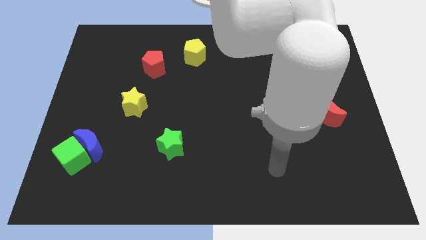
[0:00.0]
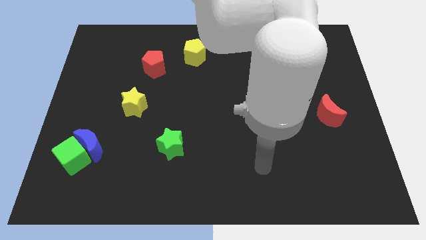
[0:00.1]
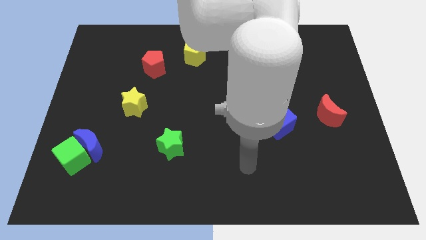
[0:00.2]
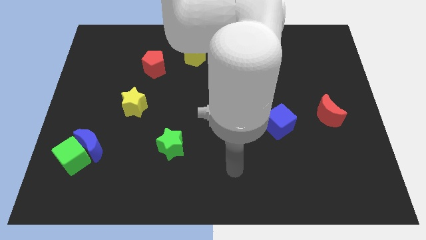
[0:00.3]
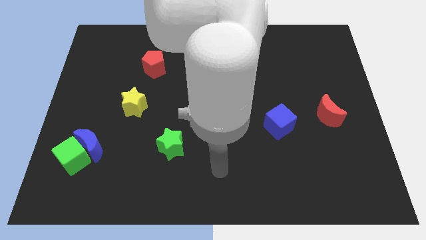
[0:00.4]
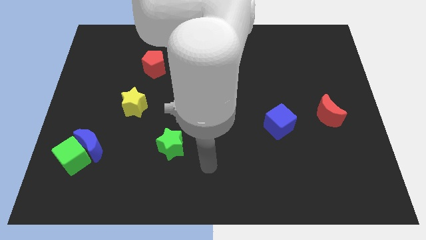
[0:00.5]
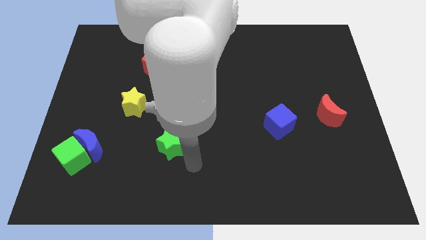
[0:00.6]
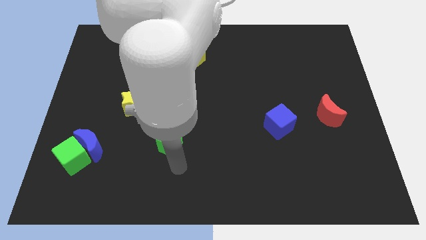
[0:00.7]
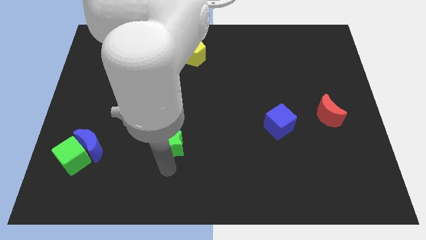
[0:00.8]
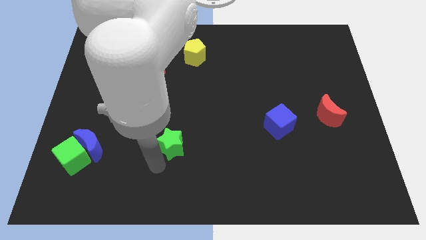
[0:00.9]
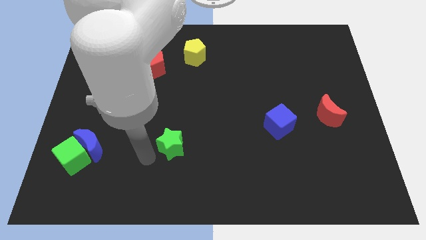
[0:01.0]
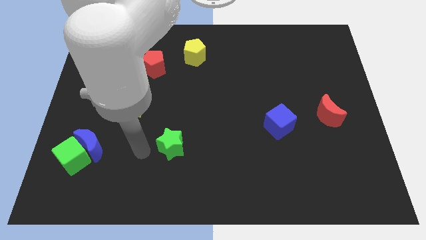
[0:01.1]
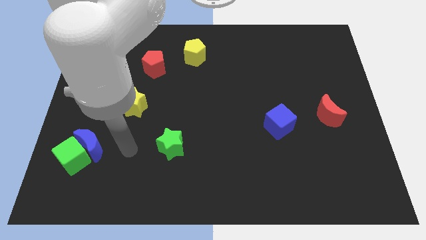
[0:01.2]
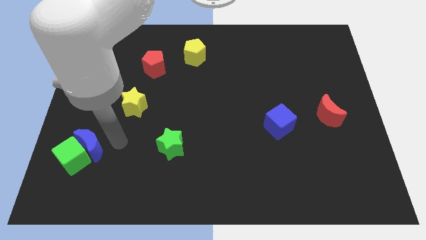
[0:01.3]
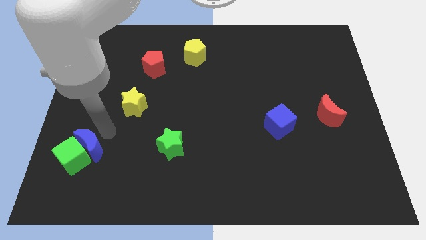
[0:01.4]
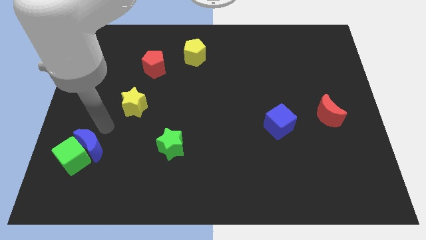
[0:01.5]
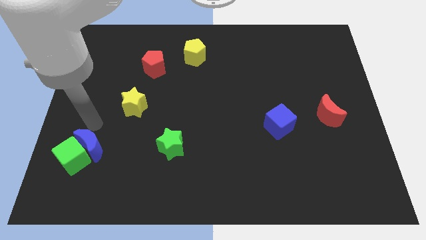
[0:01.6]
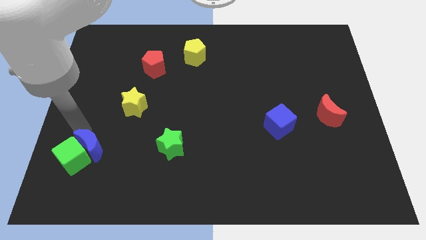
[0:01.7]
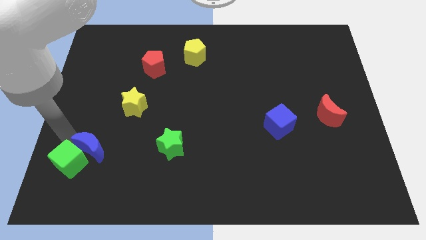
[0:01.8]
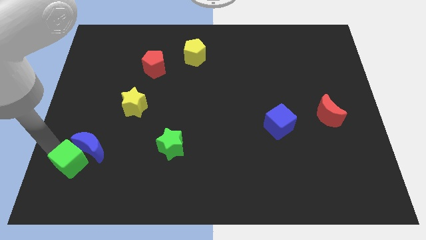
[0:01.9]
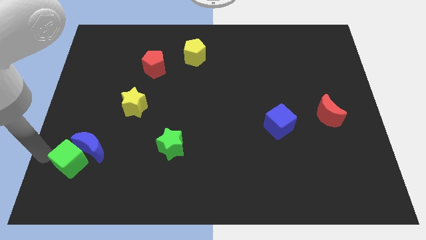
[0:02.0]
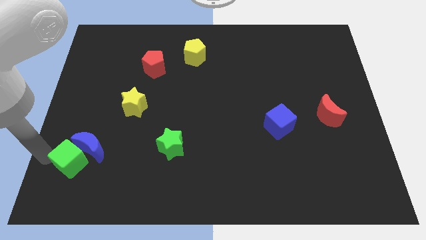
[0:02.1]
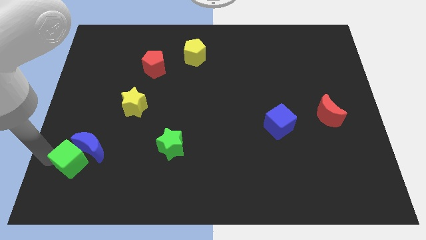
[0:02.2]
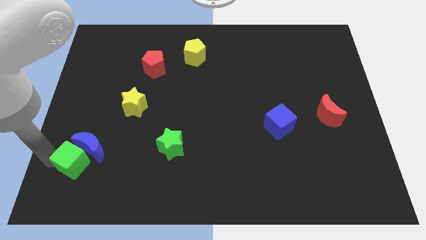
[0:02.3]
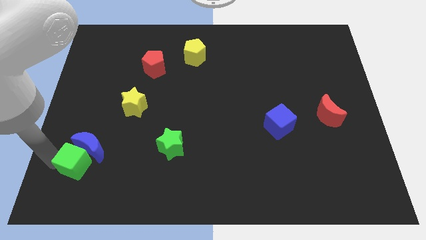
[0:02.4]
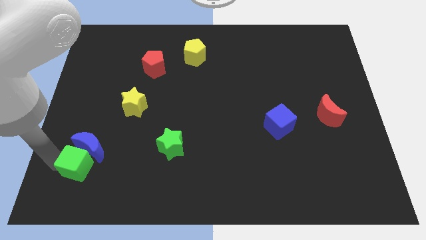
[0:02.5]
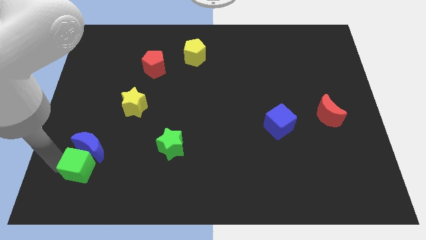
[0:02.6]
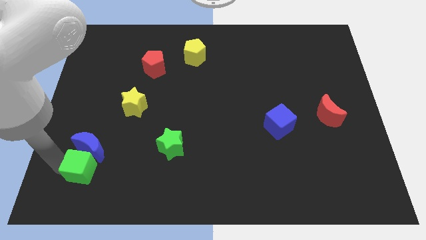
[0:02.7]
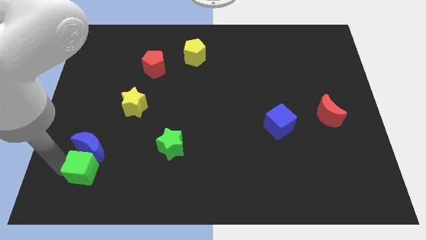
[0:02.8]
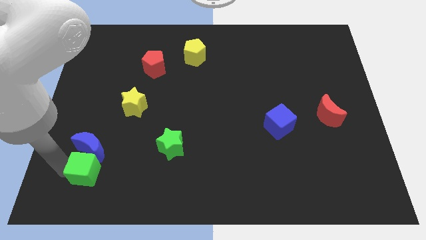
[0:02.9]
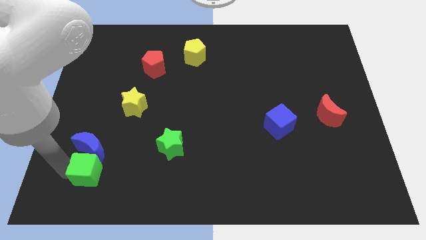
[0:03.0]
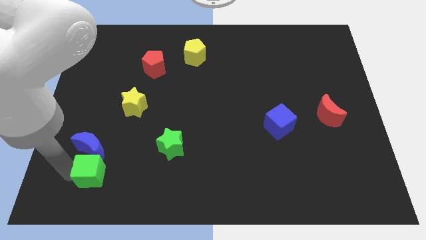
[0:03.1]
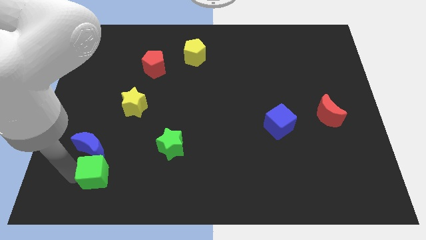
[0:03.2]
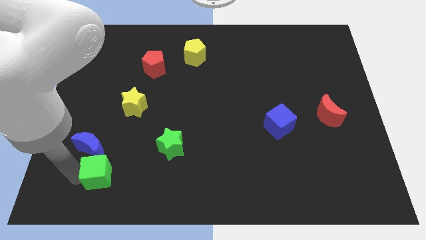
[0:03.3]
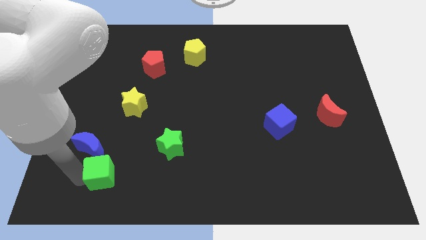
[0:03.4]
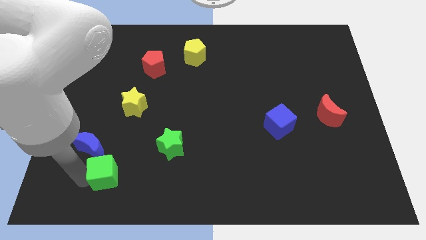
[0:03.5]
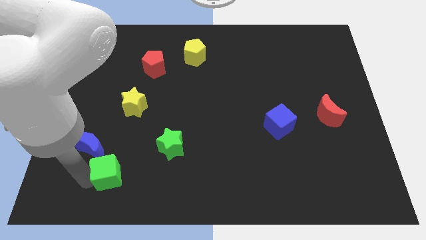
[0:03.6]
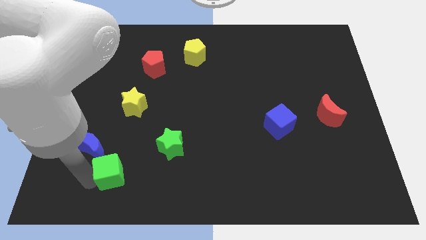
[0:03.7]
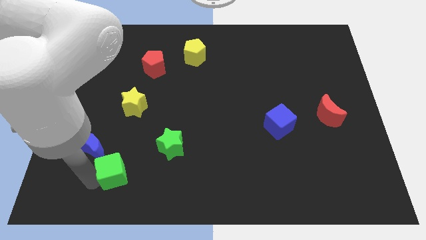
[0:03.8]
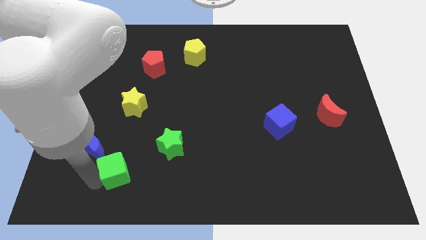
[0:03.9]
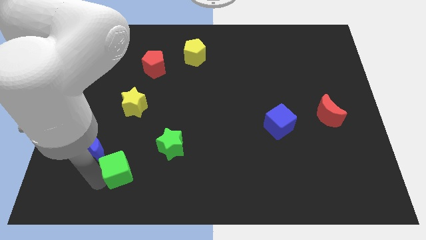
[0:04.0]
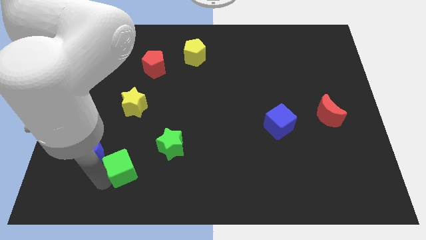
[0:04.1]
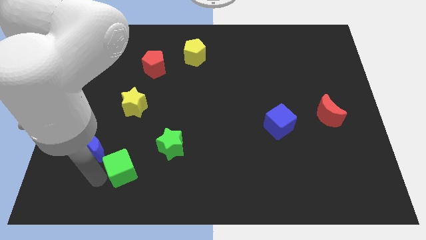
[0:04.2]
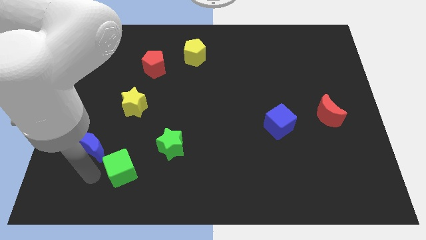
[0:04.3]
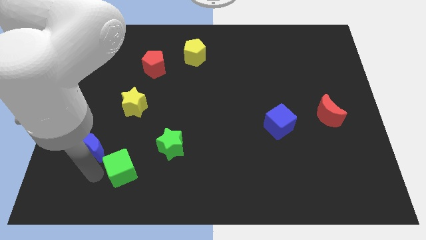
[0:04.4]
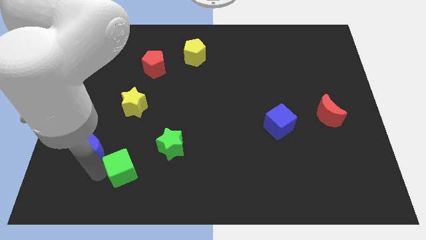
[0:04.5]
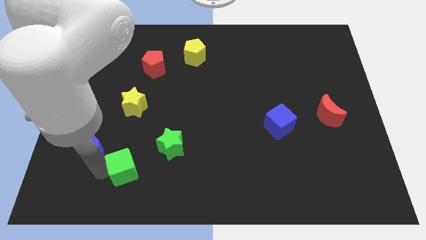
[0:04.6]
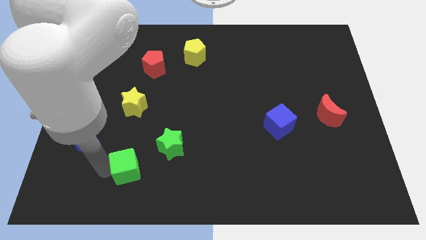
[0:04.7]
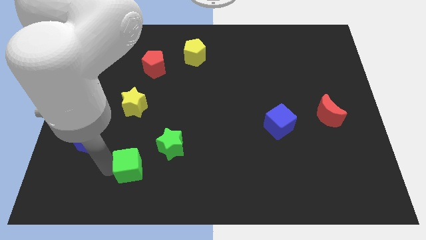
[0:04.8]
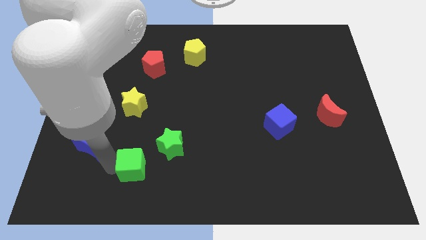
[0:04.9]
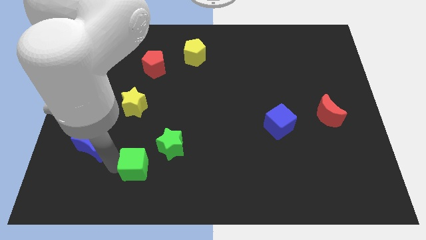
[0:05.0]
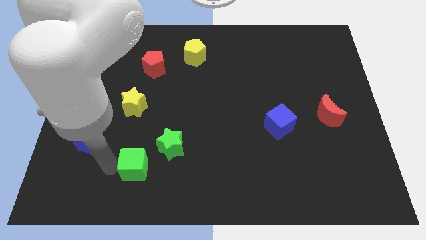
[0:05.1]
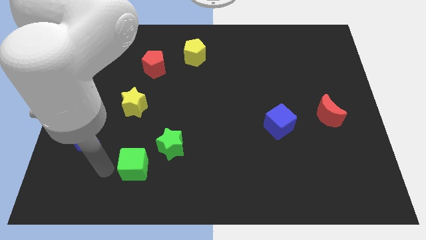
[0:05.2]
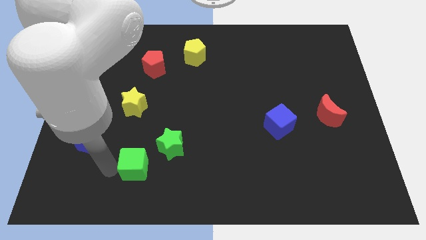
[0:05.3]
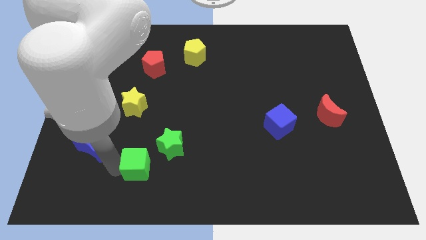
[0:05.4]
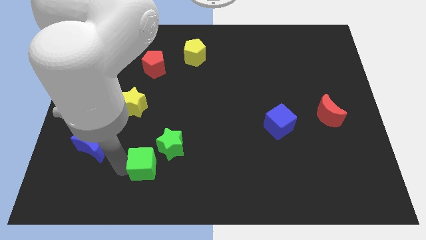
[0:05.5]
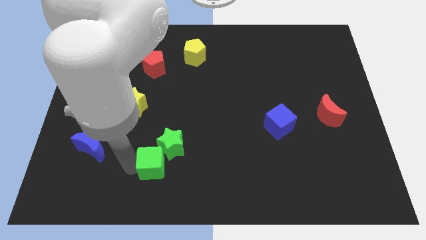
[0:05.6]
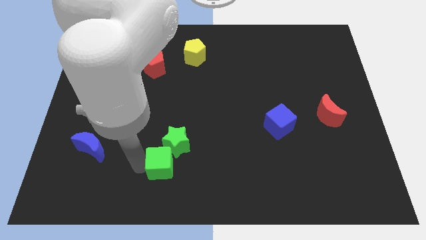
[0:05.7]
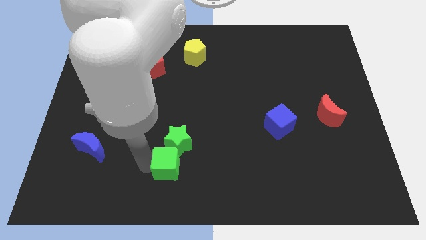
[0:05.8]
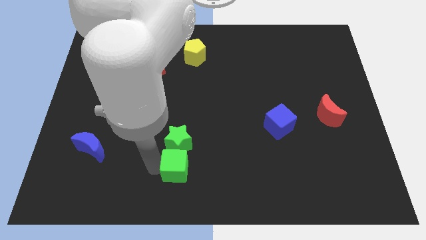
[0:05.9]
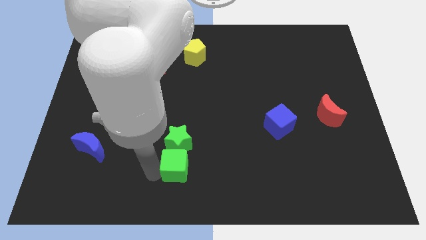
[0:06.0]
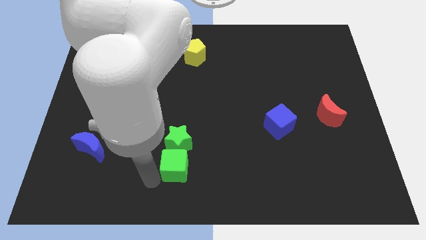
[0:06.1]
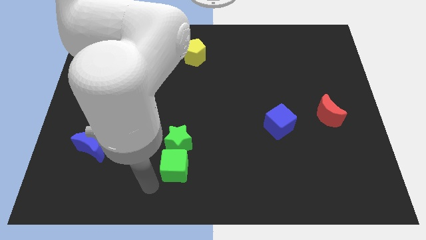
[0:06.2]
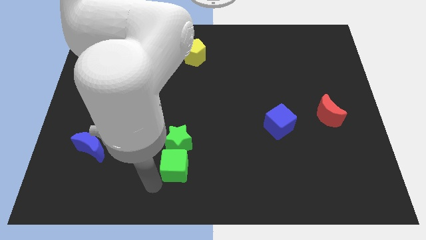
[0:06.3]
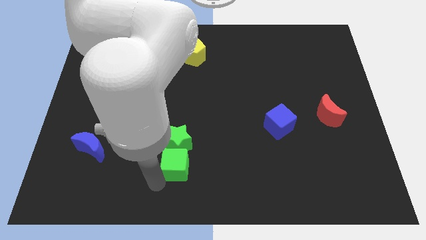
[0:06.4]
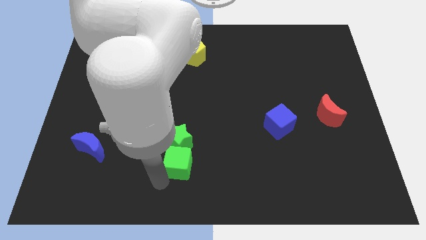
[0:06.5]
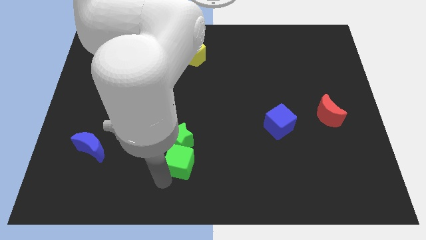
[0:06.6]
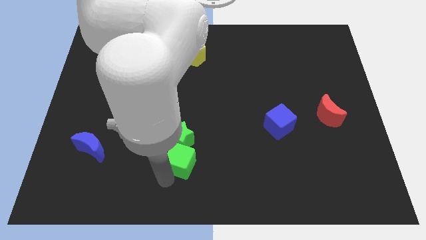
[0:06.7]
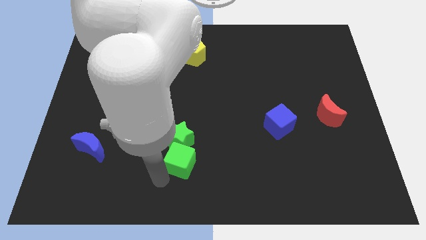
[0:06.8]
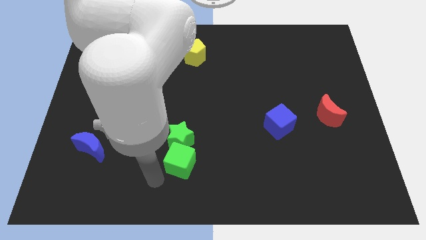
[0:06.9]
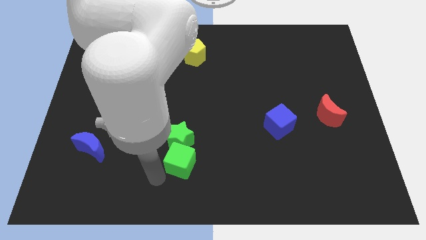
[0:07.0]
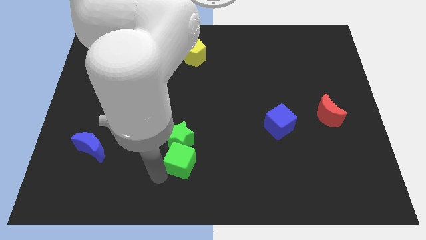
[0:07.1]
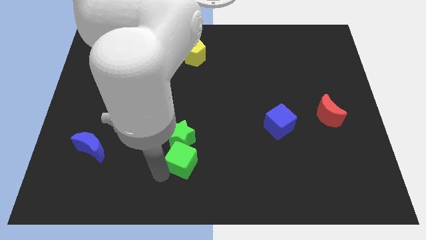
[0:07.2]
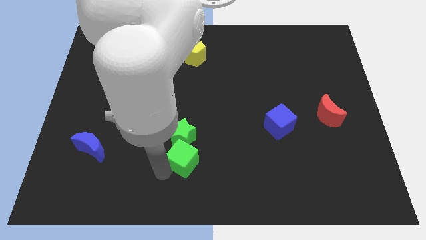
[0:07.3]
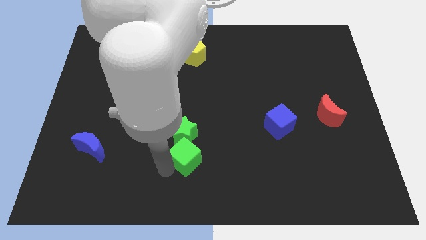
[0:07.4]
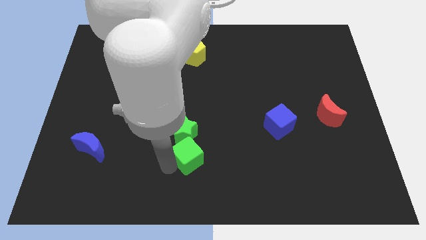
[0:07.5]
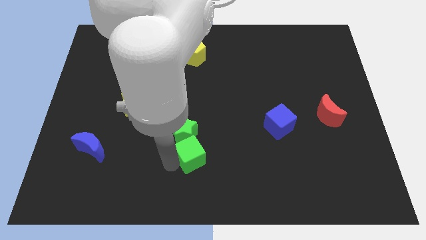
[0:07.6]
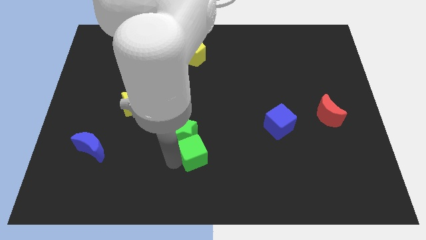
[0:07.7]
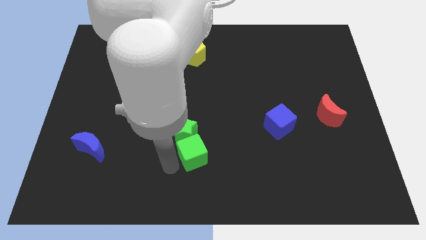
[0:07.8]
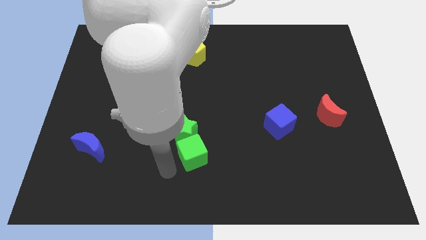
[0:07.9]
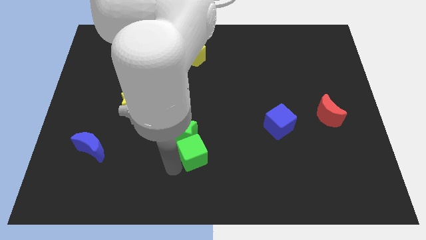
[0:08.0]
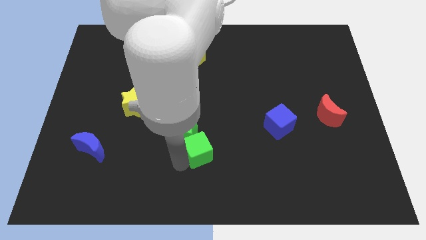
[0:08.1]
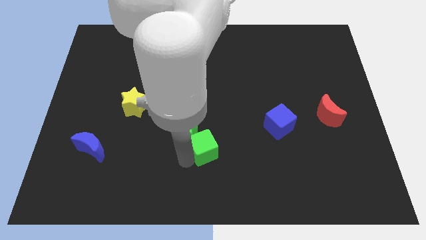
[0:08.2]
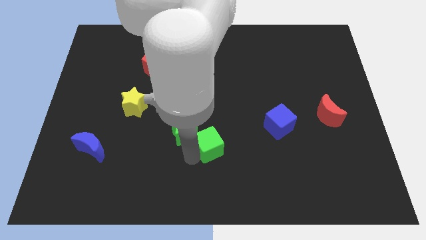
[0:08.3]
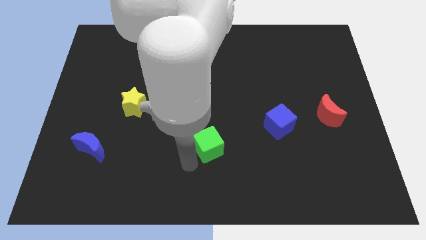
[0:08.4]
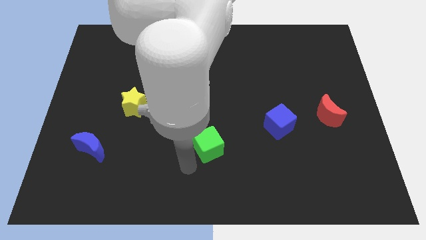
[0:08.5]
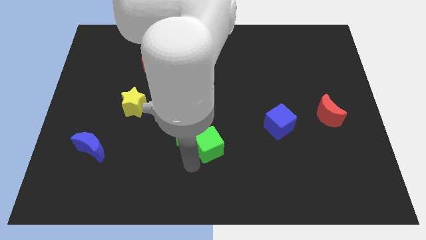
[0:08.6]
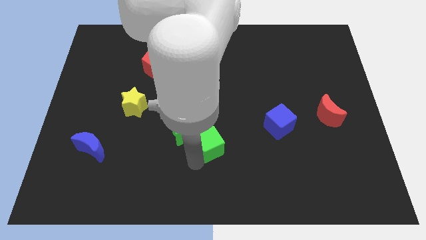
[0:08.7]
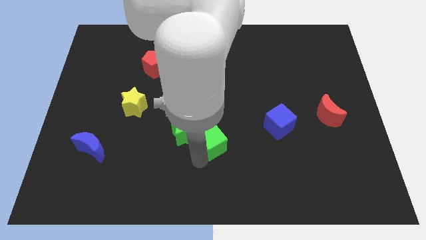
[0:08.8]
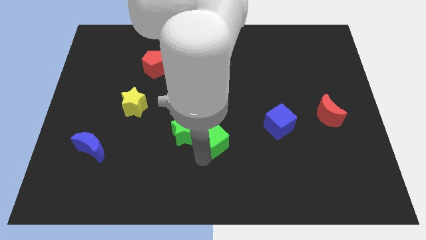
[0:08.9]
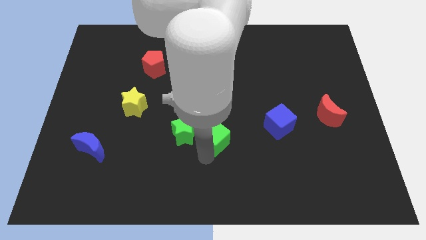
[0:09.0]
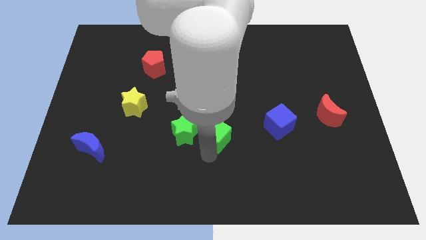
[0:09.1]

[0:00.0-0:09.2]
slide the green cube just left of the blue cube
